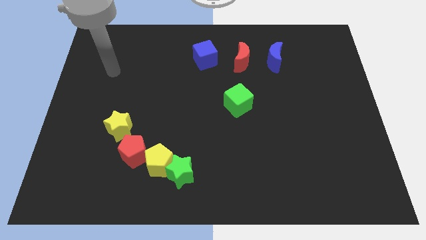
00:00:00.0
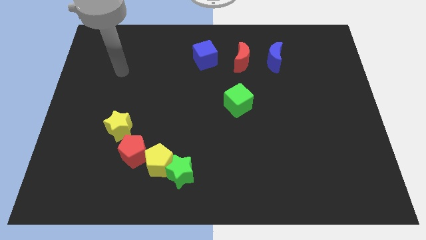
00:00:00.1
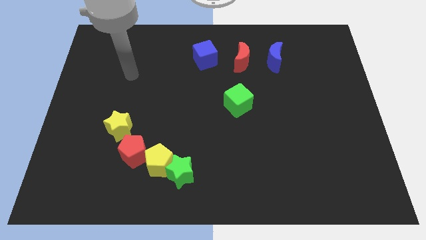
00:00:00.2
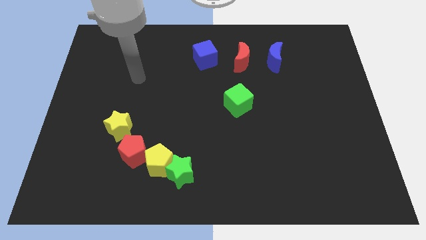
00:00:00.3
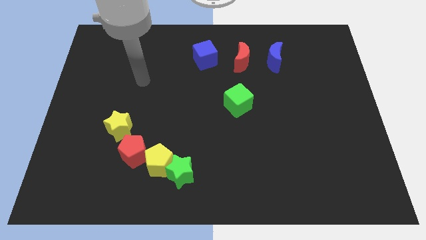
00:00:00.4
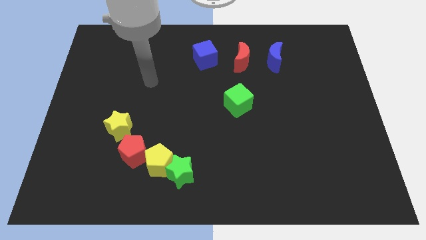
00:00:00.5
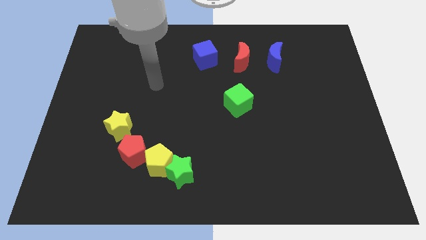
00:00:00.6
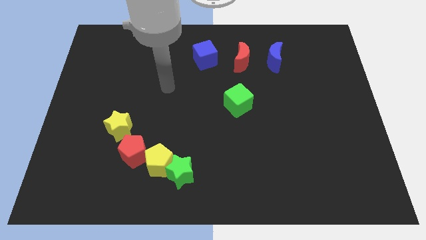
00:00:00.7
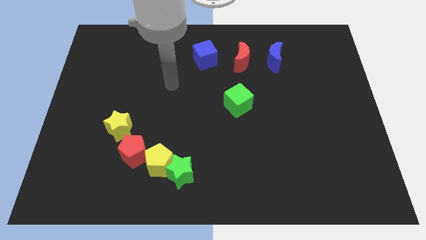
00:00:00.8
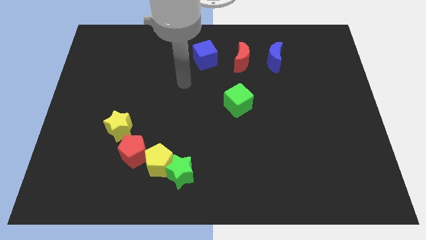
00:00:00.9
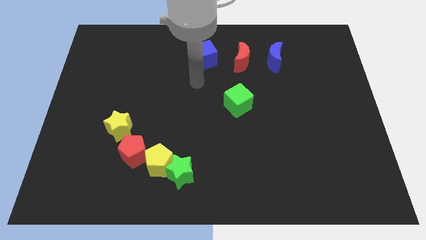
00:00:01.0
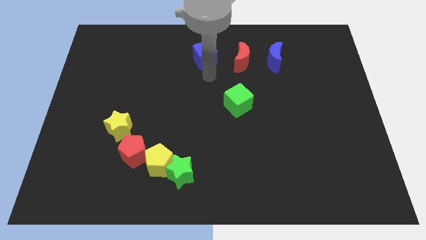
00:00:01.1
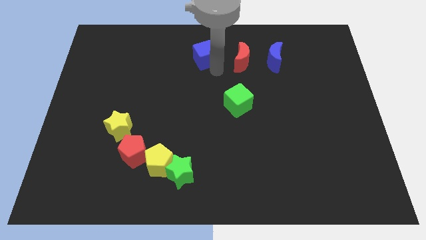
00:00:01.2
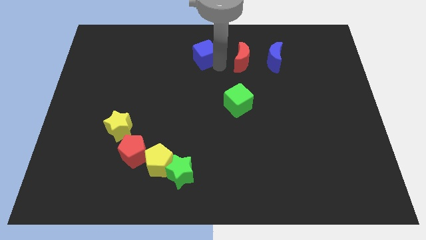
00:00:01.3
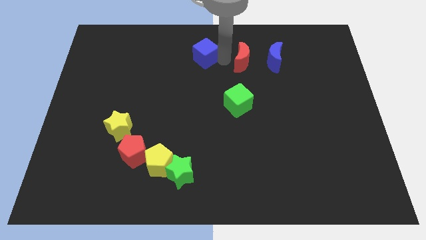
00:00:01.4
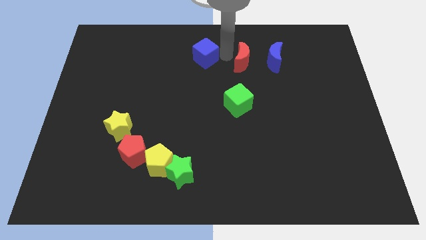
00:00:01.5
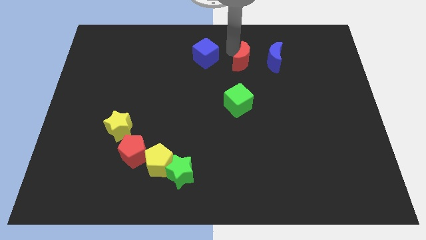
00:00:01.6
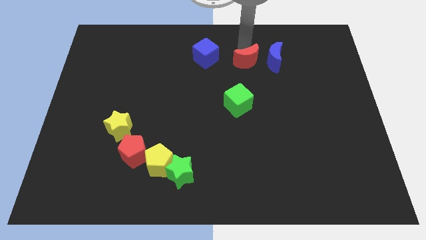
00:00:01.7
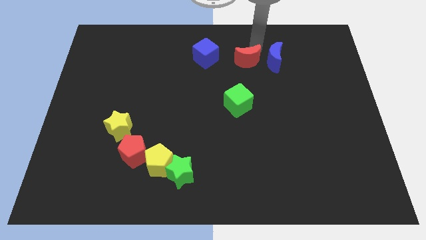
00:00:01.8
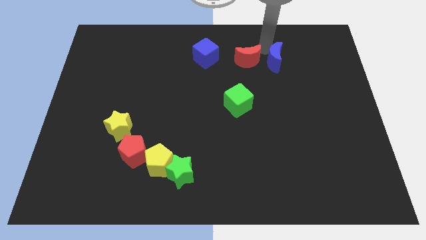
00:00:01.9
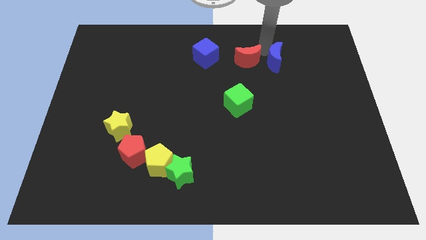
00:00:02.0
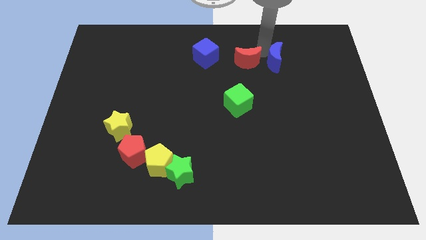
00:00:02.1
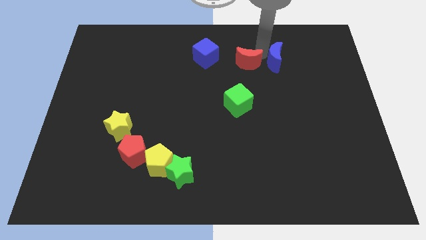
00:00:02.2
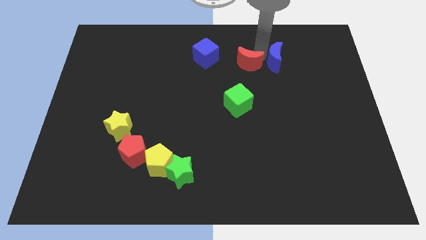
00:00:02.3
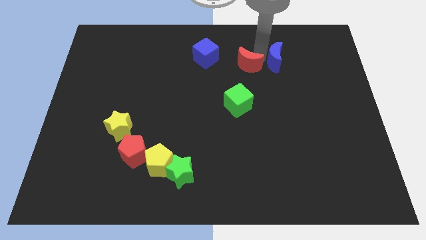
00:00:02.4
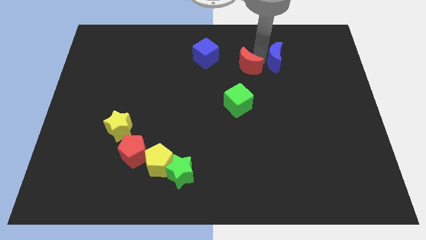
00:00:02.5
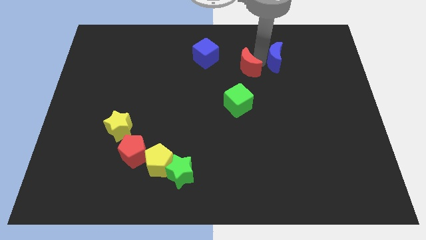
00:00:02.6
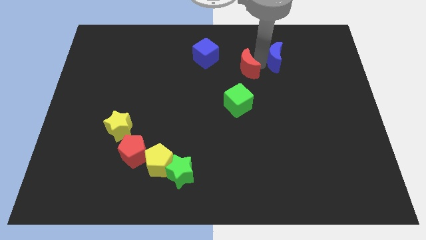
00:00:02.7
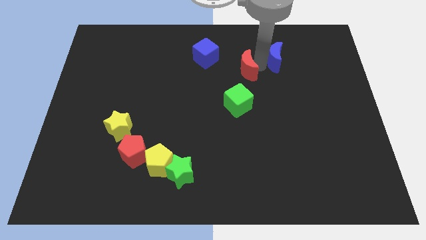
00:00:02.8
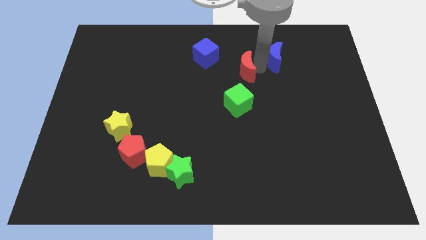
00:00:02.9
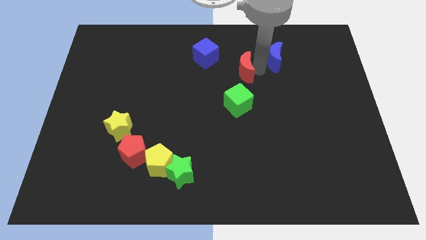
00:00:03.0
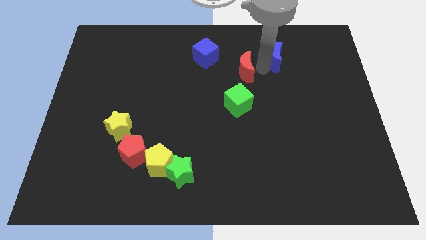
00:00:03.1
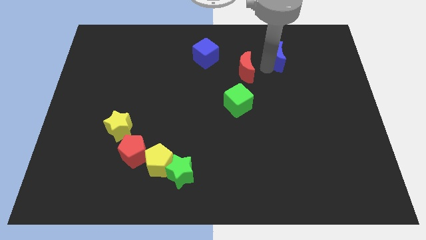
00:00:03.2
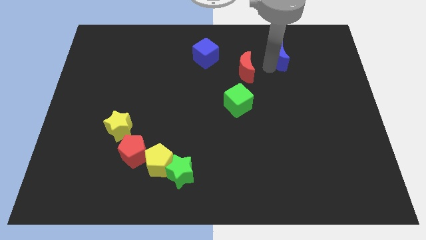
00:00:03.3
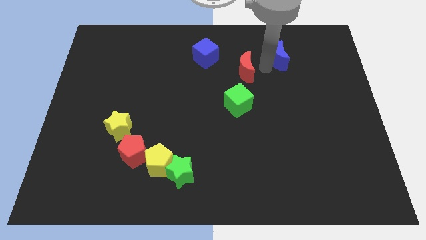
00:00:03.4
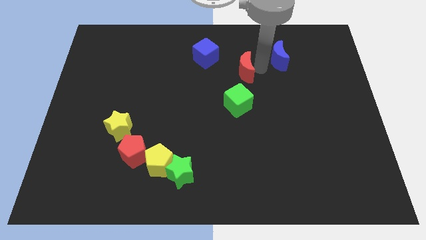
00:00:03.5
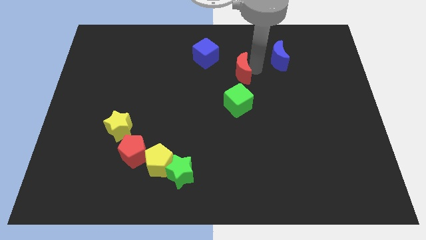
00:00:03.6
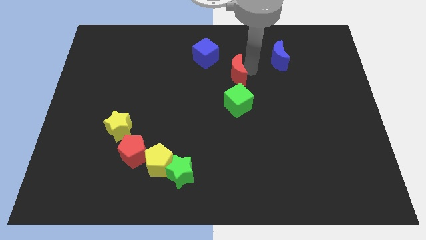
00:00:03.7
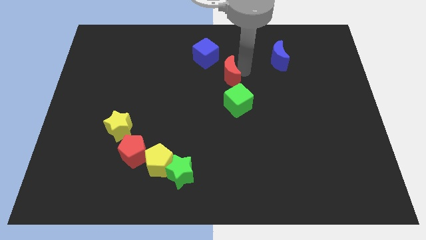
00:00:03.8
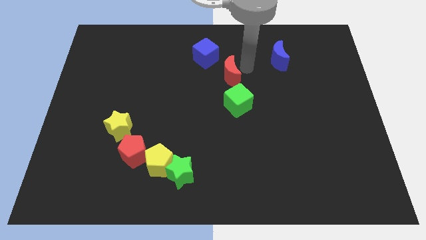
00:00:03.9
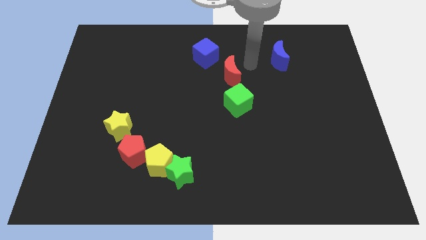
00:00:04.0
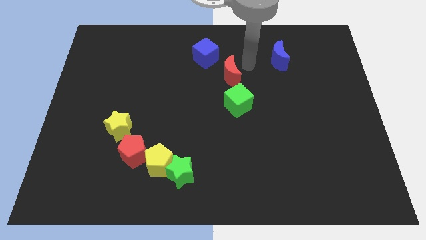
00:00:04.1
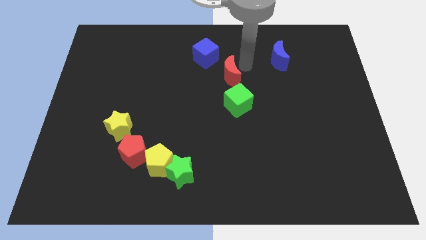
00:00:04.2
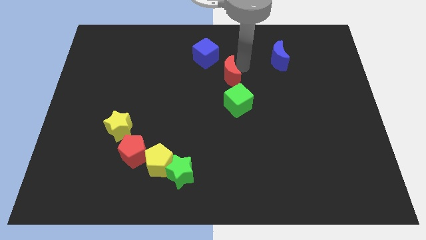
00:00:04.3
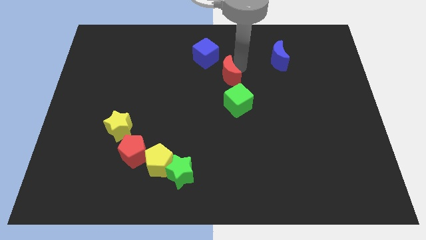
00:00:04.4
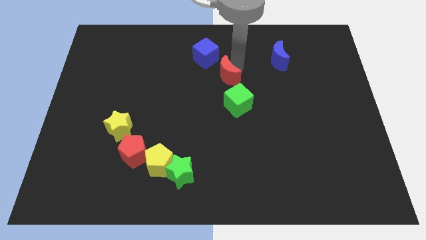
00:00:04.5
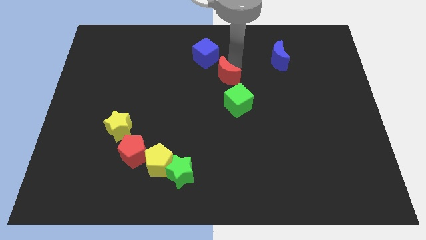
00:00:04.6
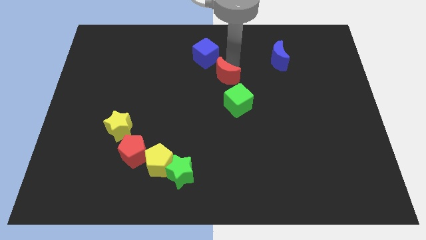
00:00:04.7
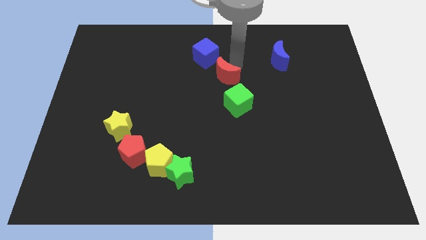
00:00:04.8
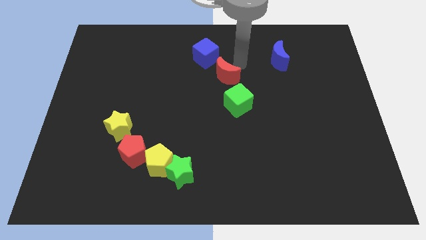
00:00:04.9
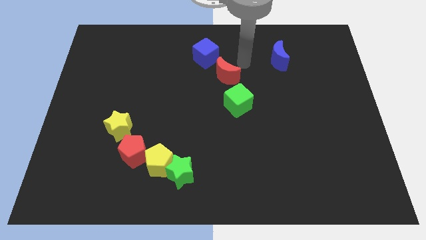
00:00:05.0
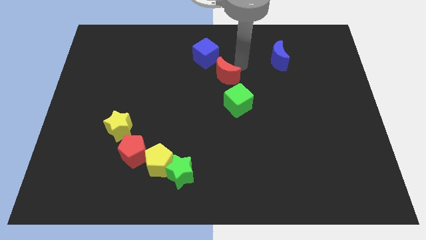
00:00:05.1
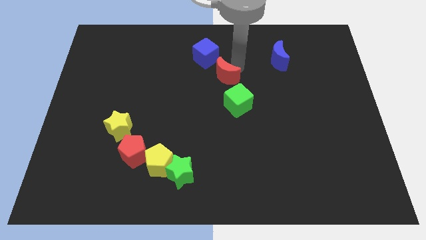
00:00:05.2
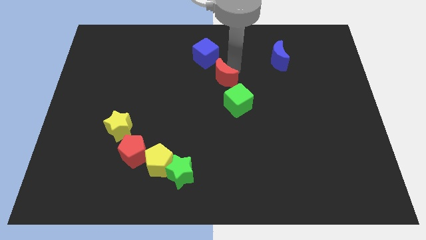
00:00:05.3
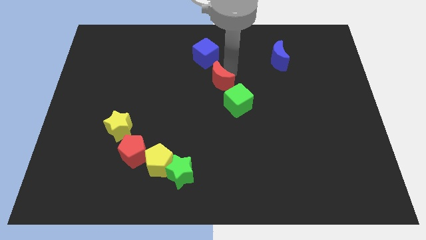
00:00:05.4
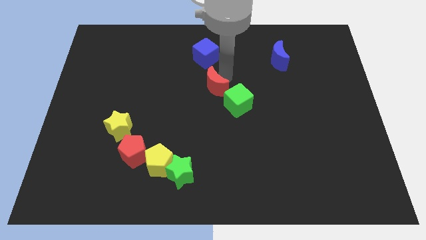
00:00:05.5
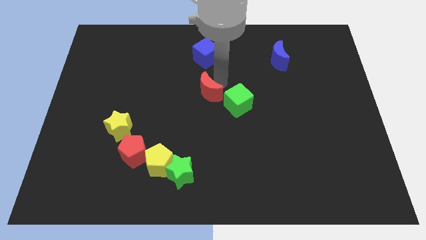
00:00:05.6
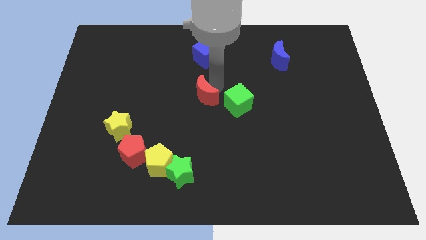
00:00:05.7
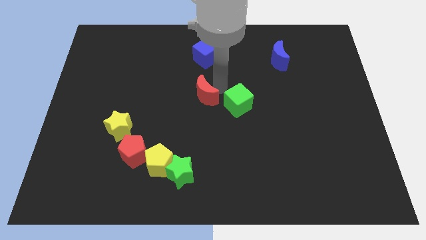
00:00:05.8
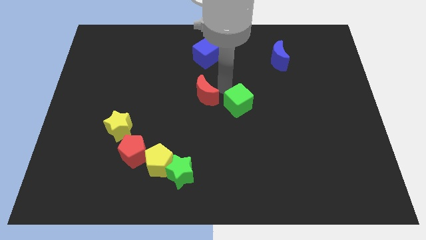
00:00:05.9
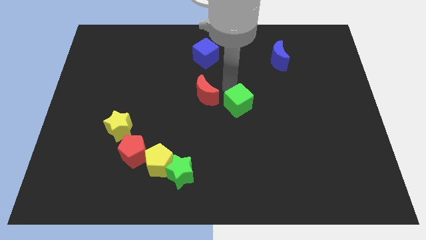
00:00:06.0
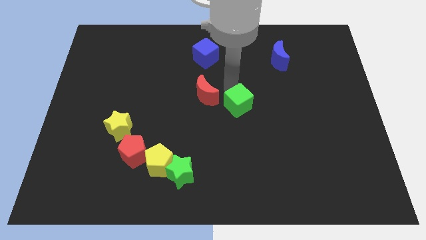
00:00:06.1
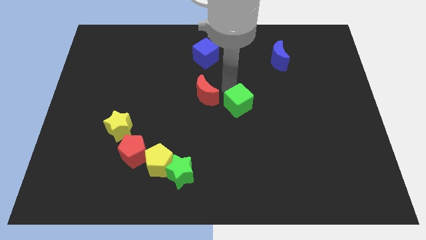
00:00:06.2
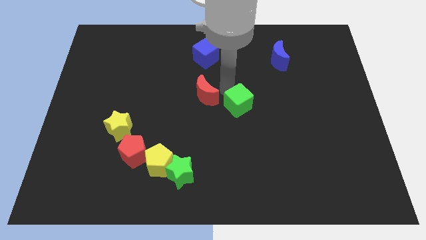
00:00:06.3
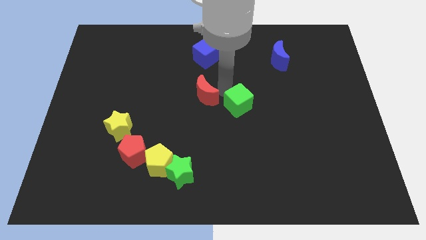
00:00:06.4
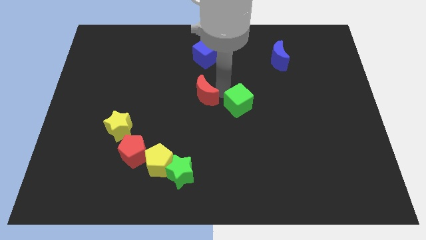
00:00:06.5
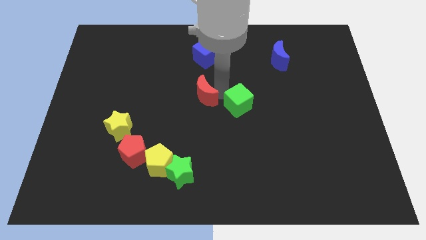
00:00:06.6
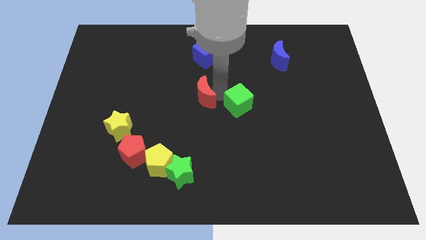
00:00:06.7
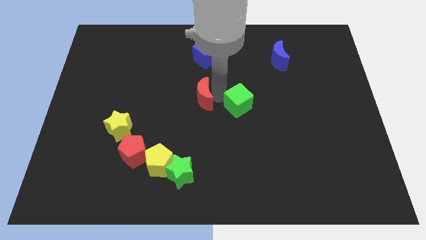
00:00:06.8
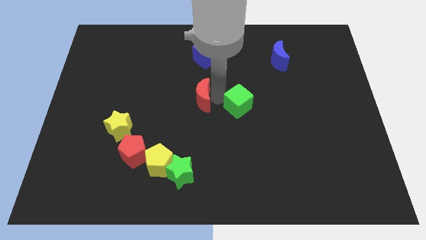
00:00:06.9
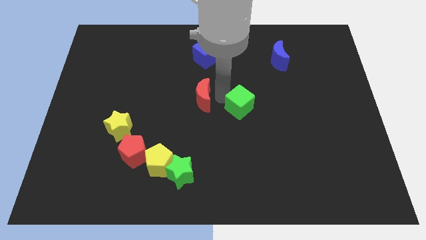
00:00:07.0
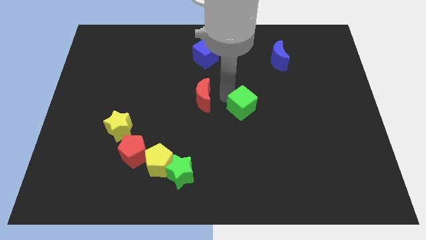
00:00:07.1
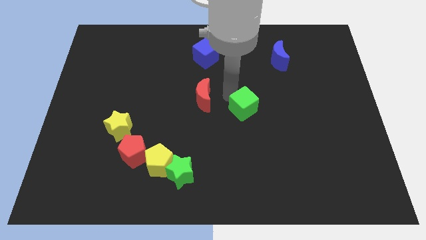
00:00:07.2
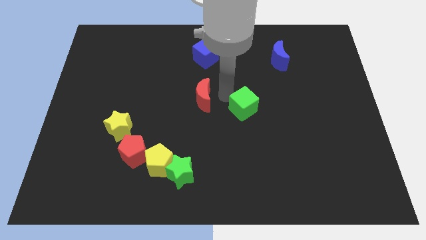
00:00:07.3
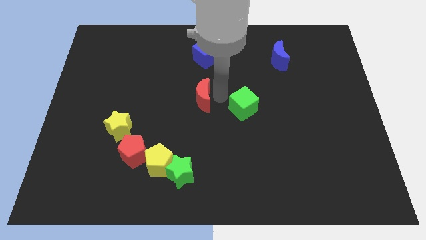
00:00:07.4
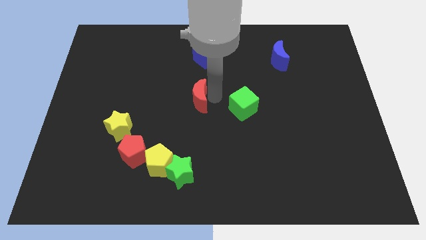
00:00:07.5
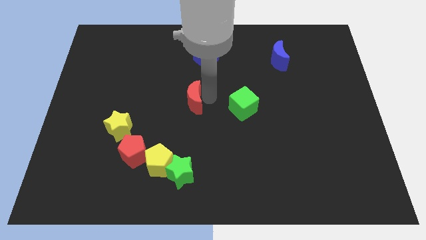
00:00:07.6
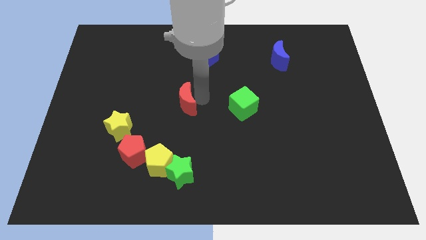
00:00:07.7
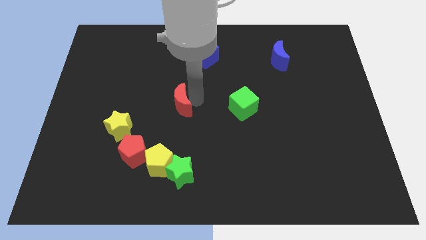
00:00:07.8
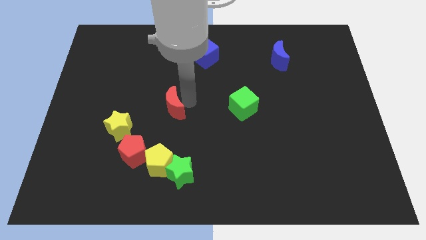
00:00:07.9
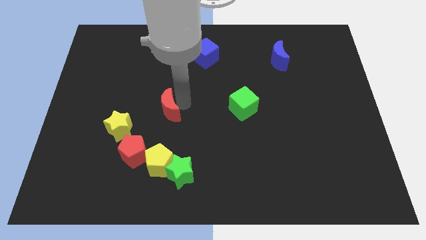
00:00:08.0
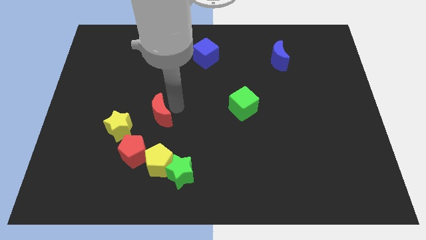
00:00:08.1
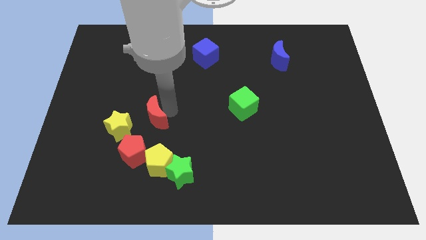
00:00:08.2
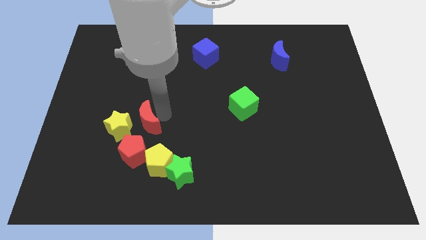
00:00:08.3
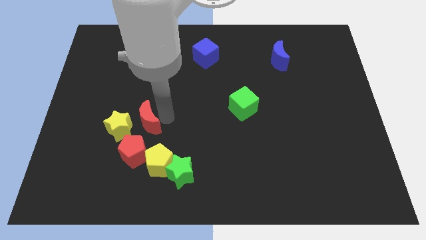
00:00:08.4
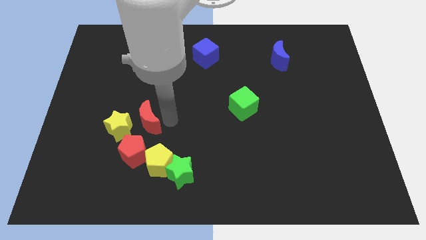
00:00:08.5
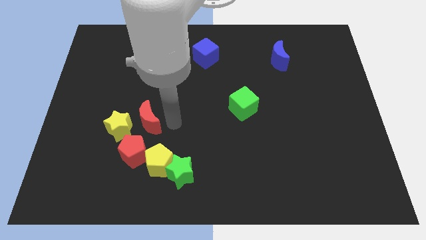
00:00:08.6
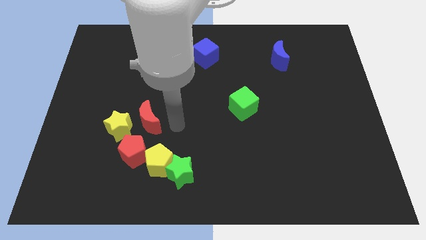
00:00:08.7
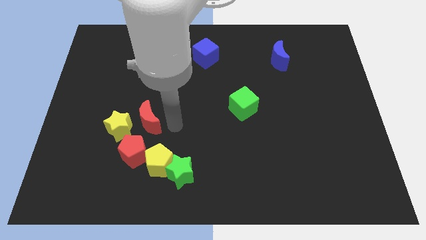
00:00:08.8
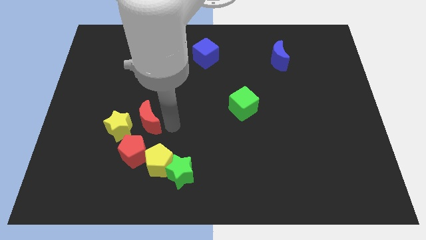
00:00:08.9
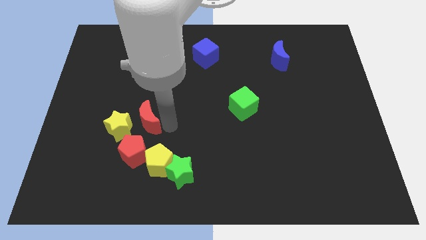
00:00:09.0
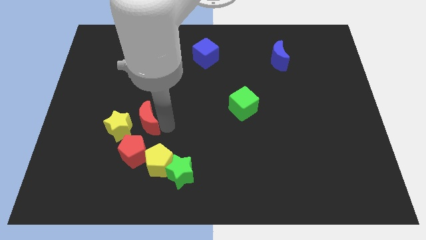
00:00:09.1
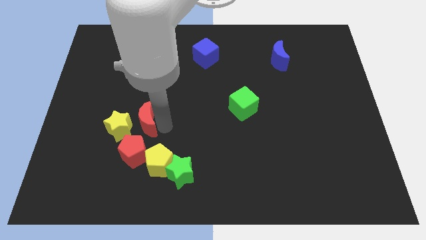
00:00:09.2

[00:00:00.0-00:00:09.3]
move the red moon towards the yellow star
